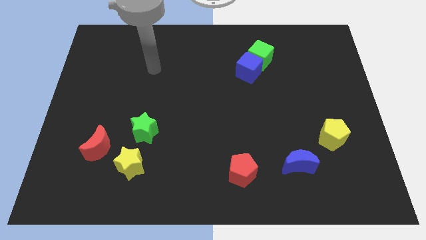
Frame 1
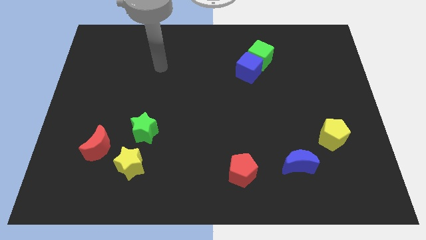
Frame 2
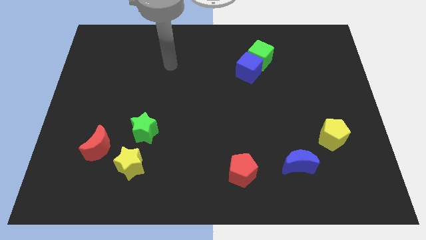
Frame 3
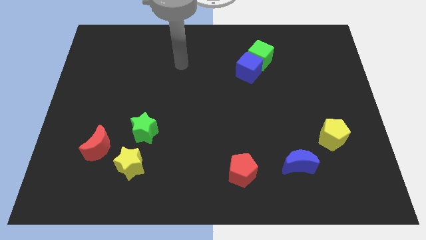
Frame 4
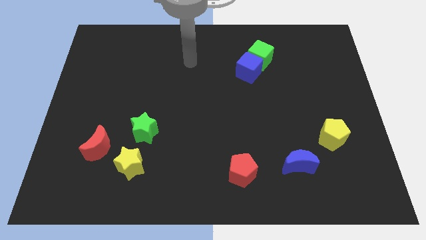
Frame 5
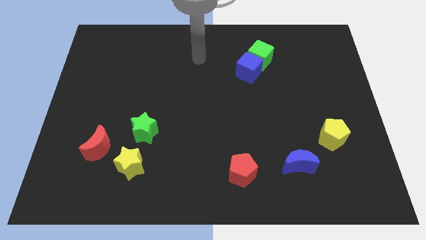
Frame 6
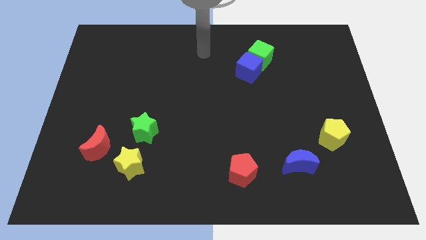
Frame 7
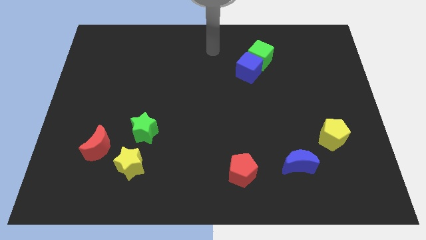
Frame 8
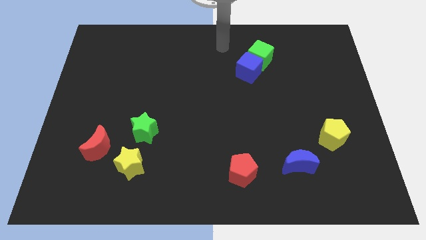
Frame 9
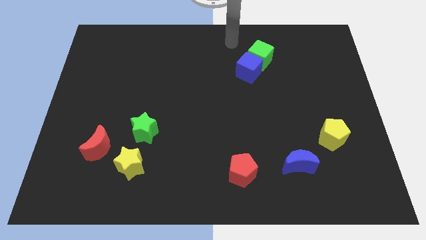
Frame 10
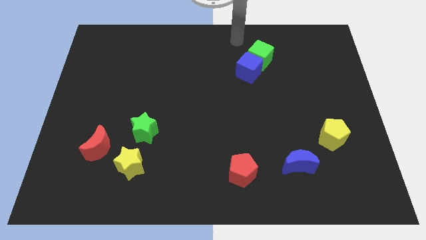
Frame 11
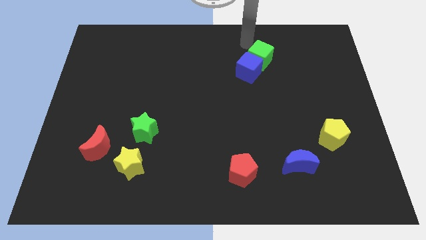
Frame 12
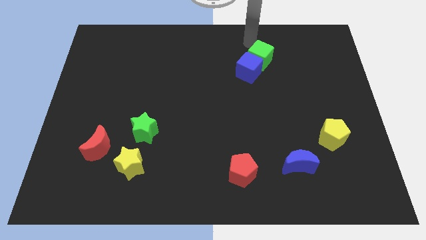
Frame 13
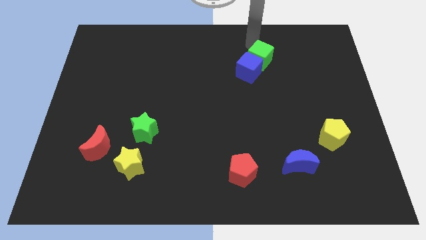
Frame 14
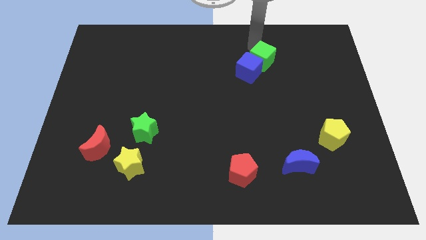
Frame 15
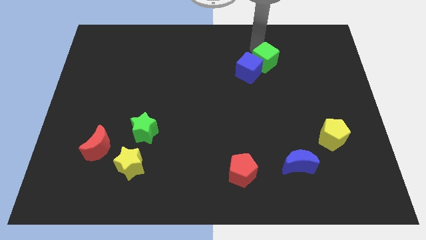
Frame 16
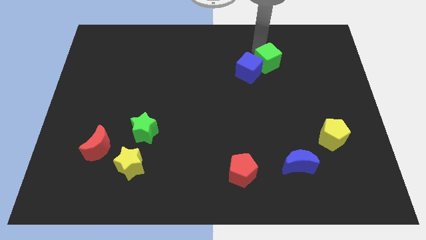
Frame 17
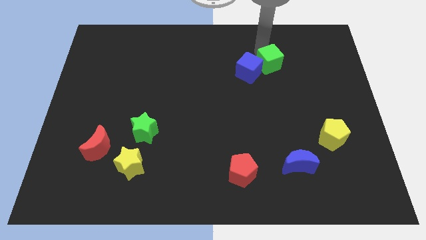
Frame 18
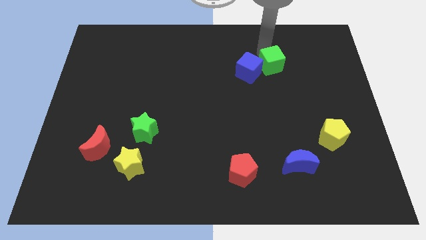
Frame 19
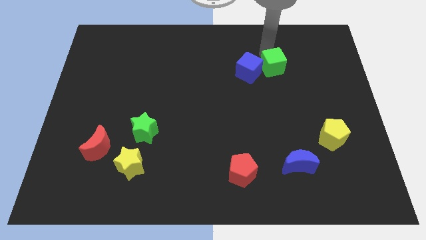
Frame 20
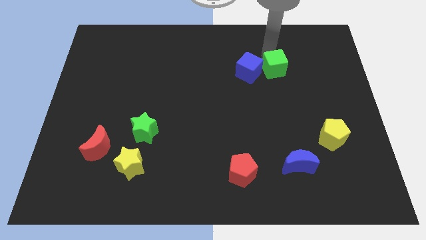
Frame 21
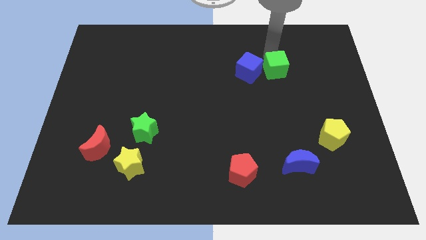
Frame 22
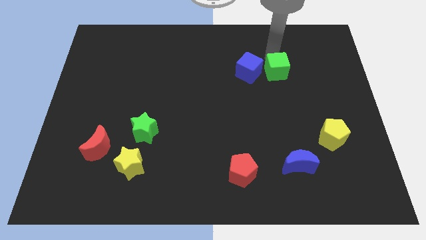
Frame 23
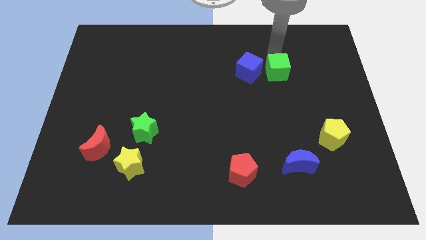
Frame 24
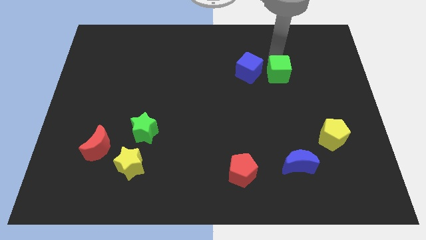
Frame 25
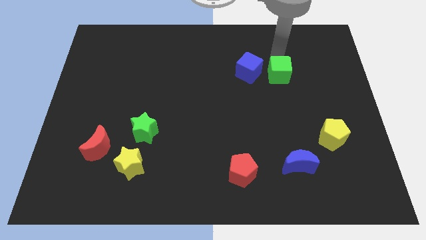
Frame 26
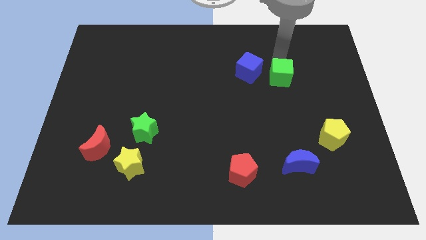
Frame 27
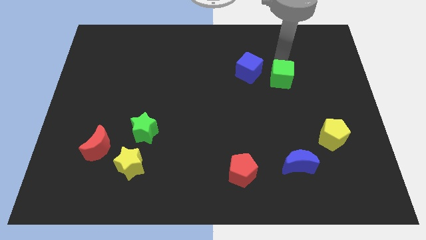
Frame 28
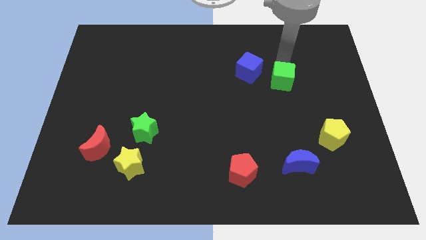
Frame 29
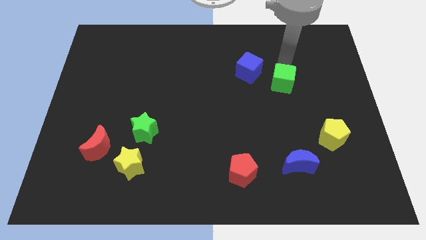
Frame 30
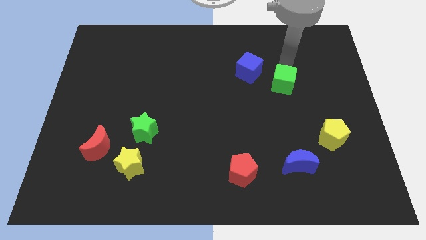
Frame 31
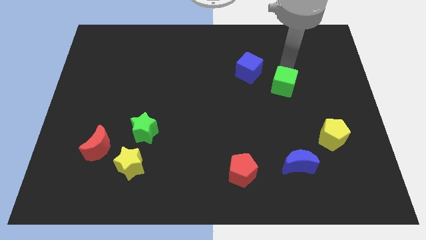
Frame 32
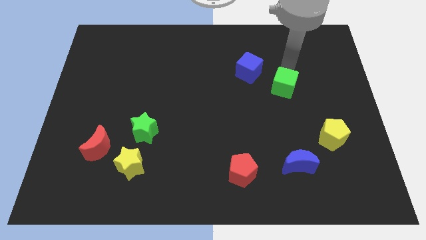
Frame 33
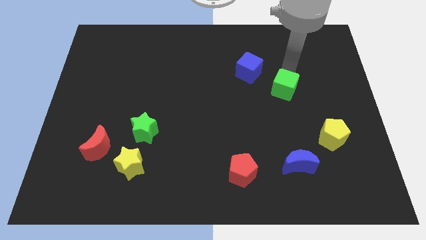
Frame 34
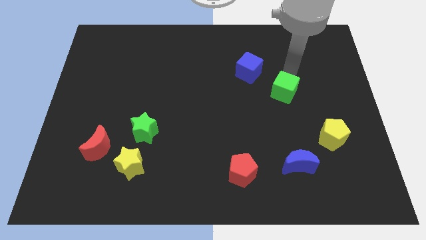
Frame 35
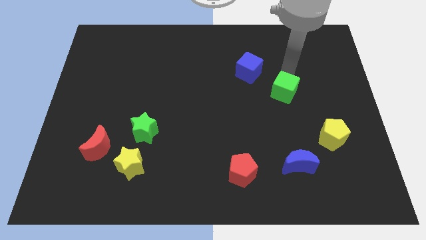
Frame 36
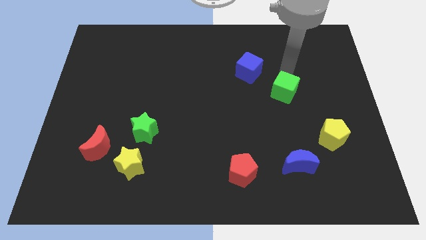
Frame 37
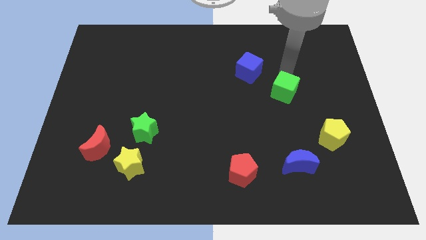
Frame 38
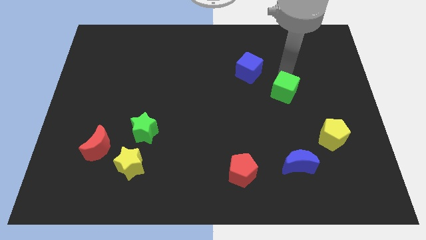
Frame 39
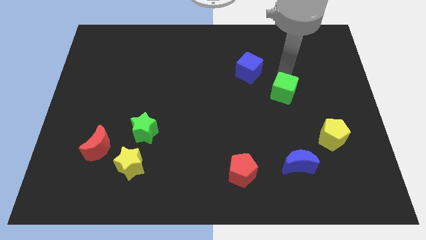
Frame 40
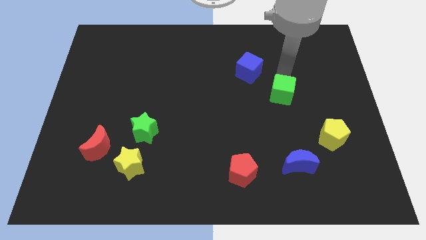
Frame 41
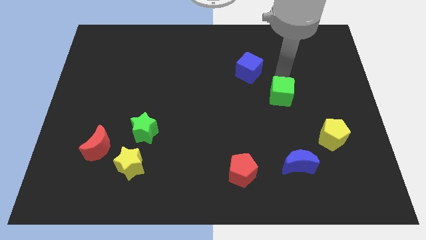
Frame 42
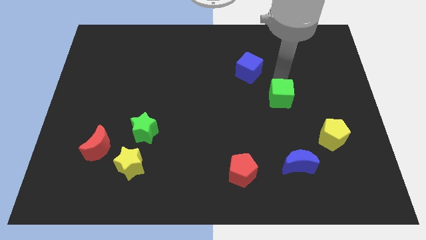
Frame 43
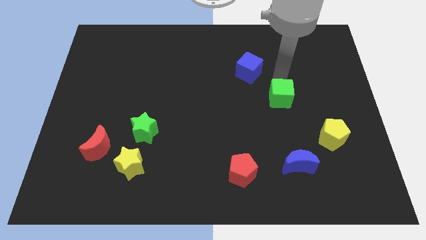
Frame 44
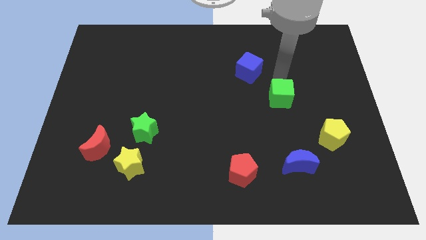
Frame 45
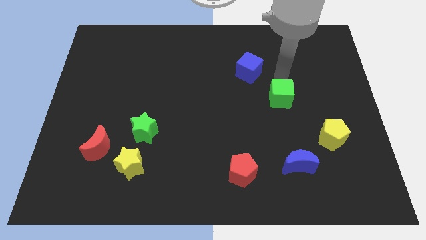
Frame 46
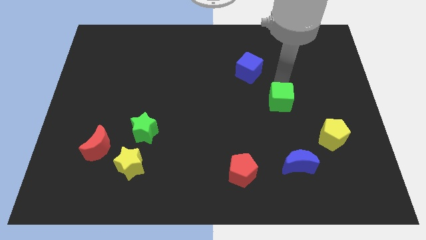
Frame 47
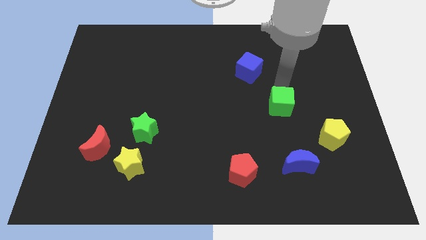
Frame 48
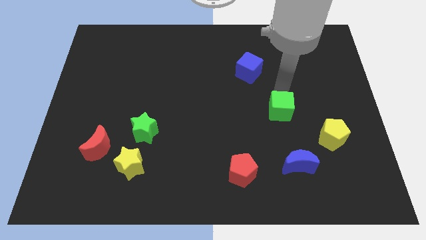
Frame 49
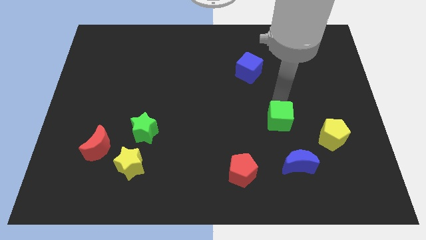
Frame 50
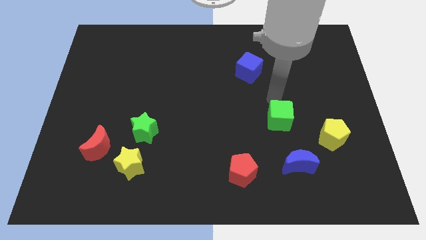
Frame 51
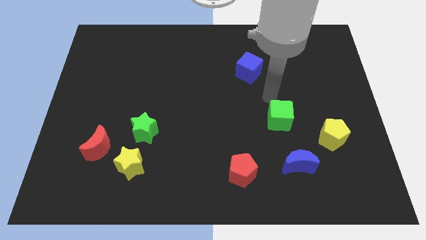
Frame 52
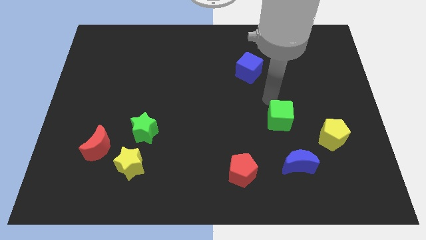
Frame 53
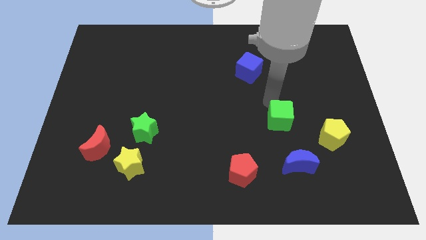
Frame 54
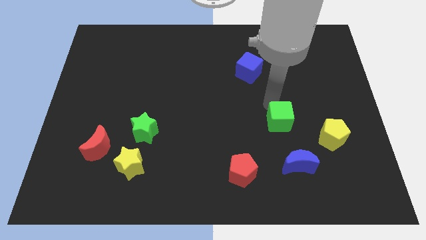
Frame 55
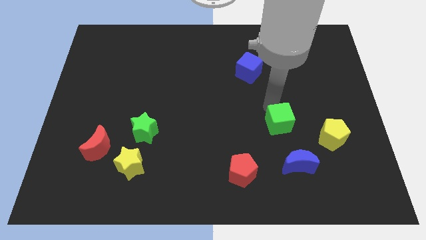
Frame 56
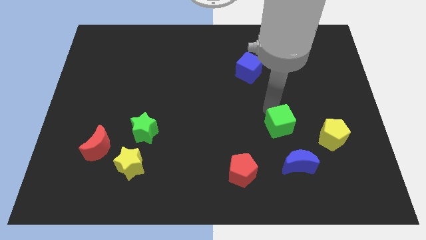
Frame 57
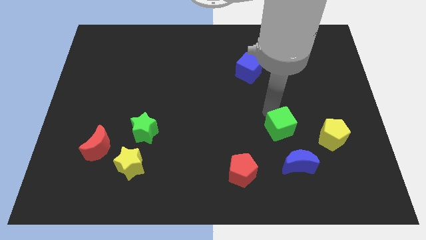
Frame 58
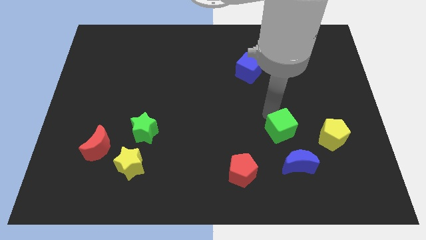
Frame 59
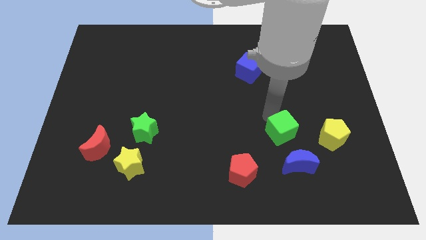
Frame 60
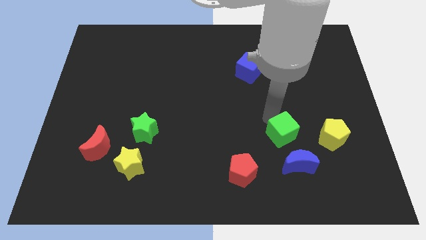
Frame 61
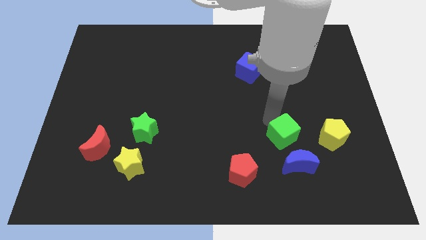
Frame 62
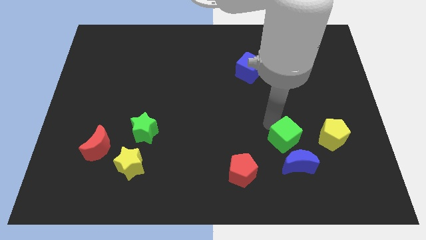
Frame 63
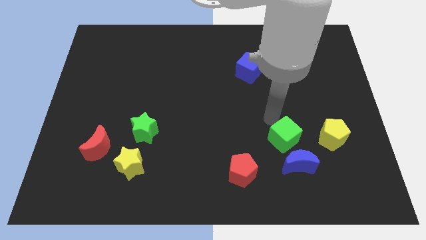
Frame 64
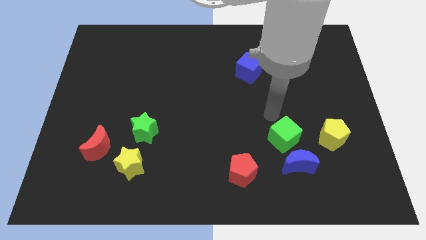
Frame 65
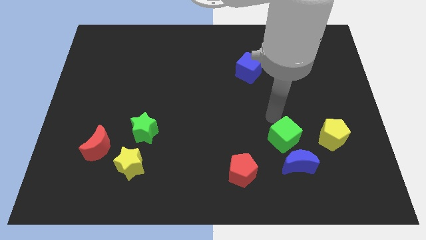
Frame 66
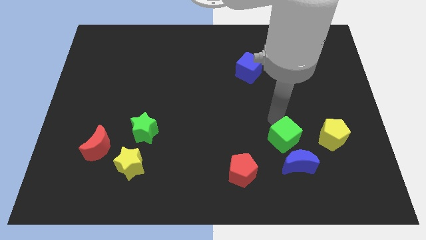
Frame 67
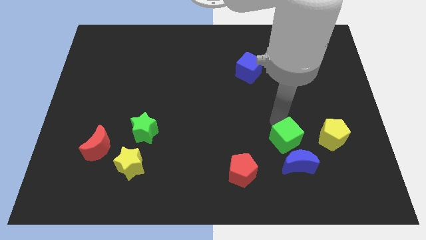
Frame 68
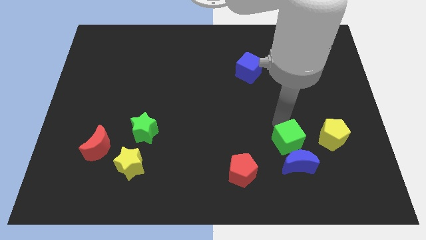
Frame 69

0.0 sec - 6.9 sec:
slide the green cube next to the blue moon
